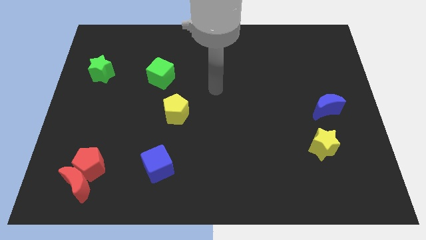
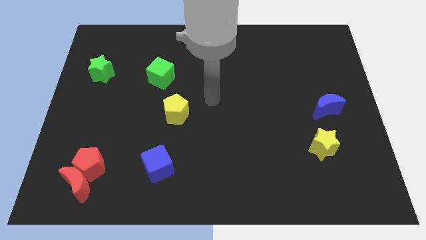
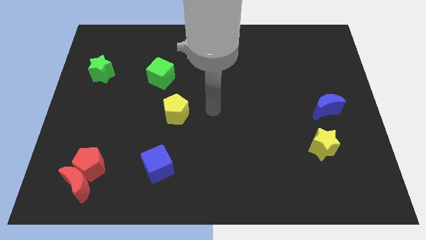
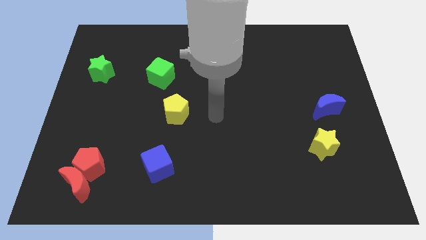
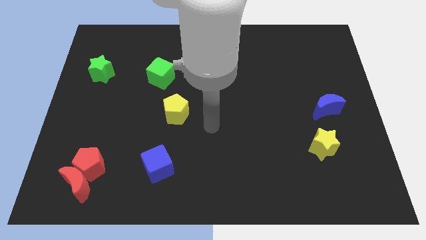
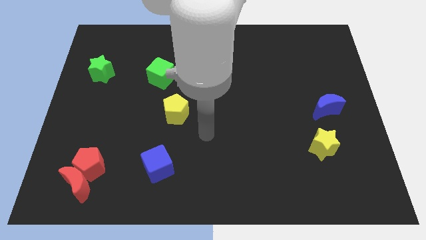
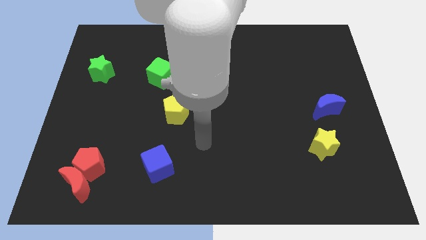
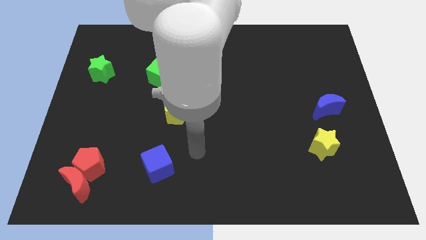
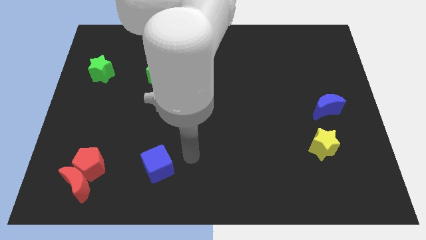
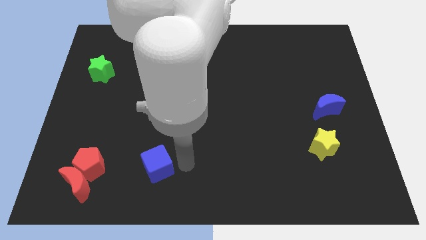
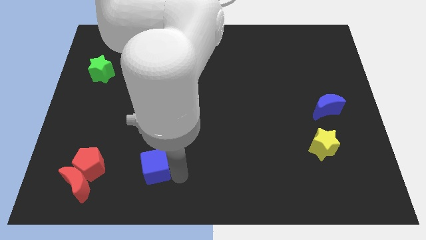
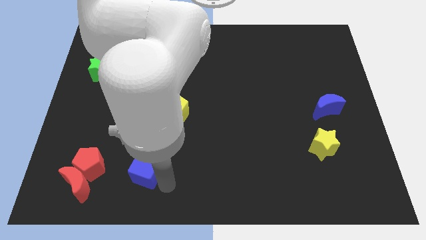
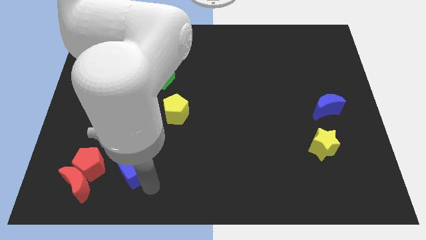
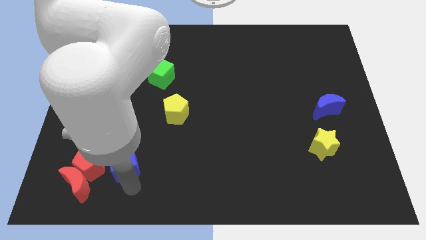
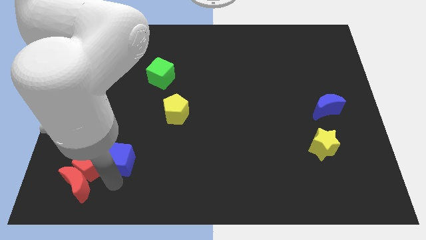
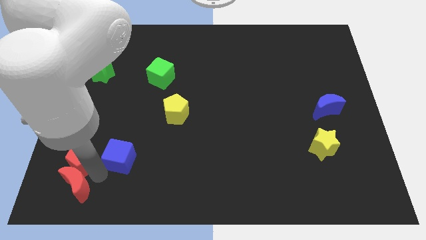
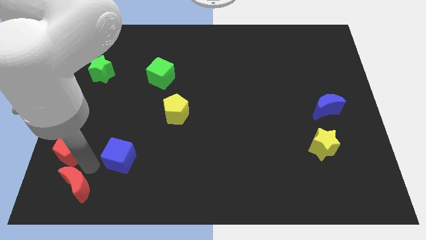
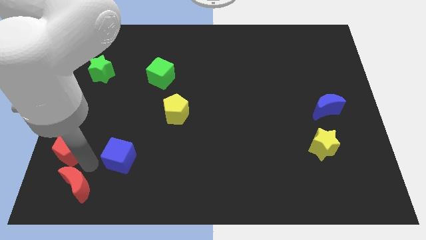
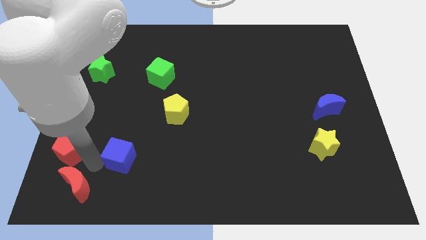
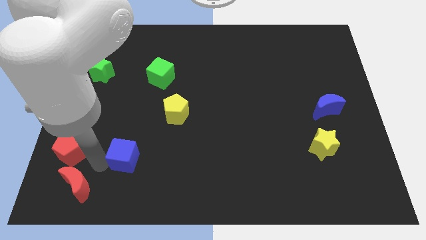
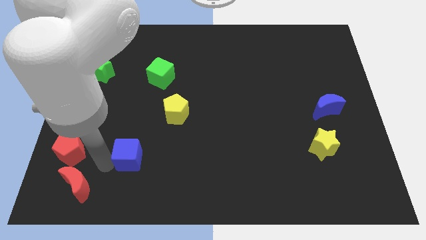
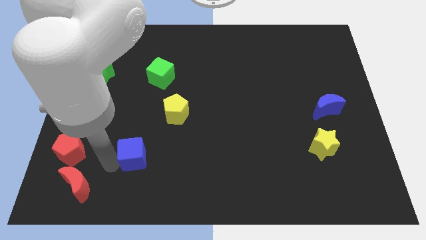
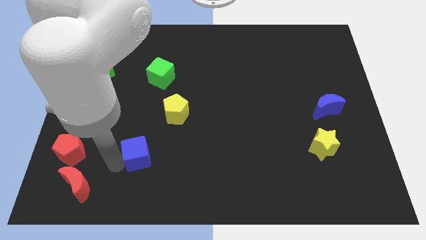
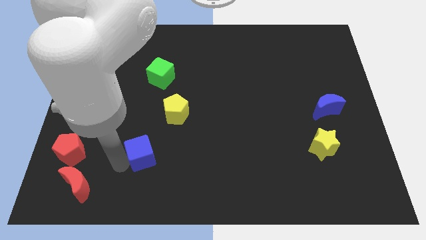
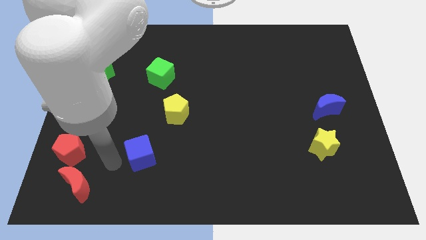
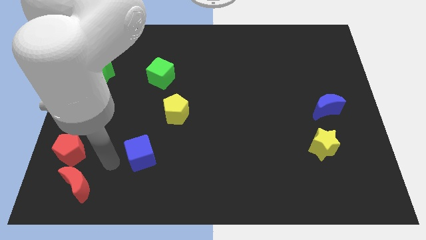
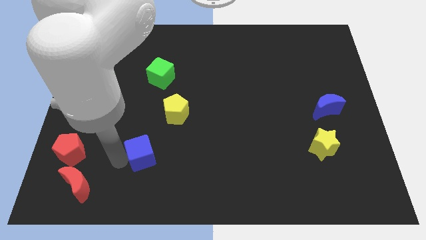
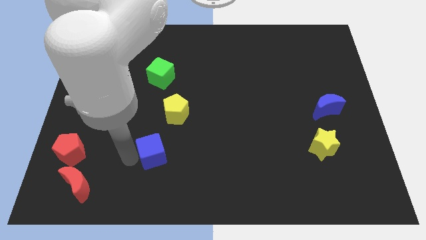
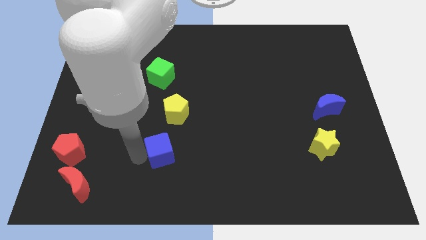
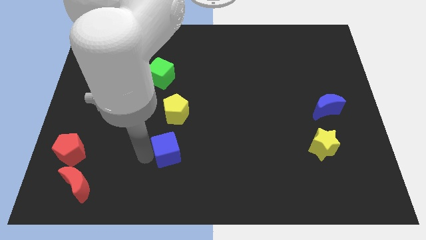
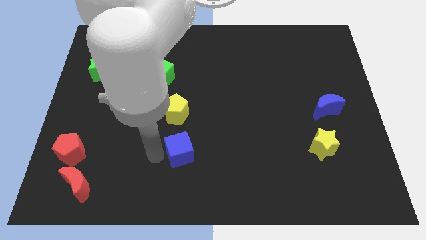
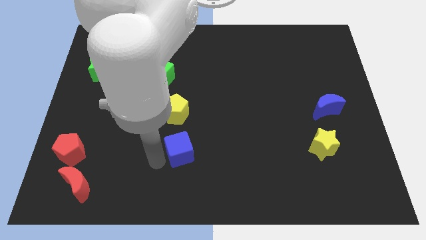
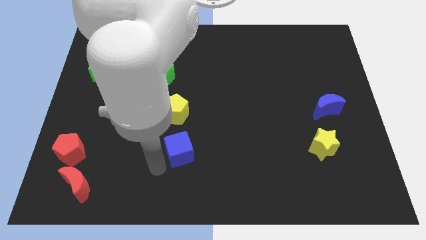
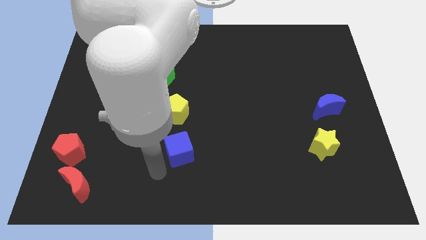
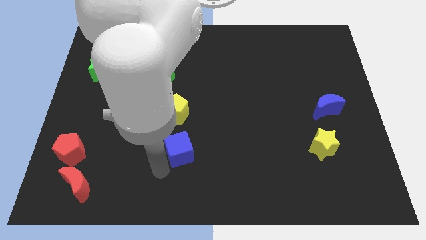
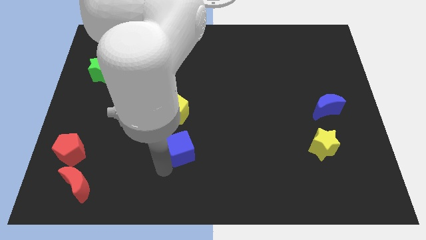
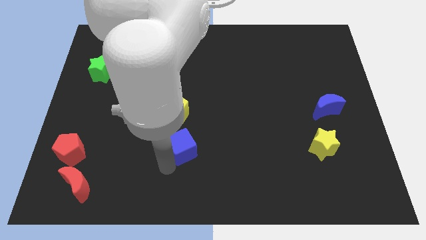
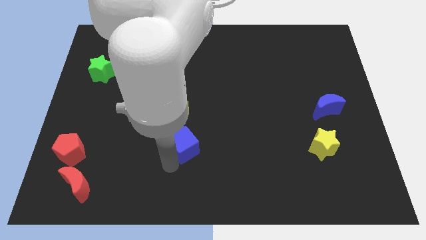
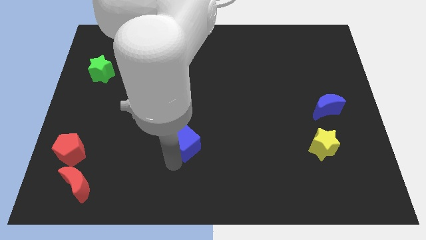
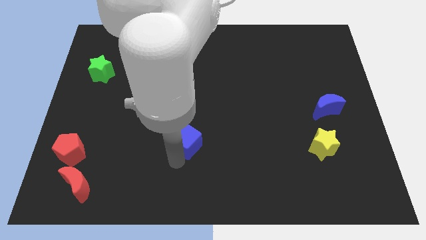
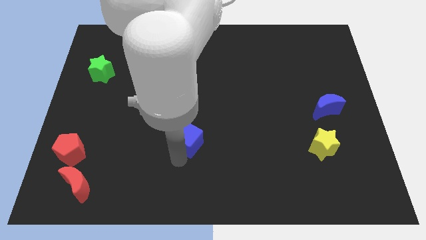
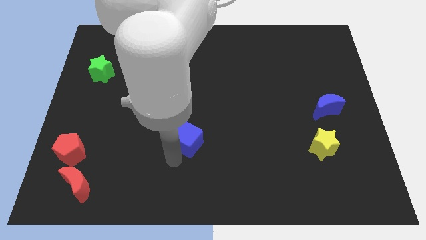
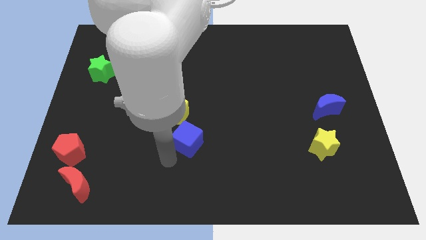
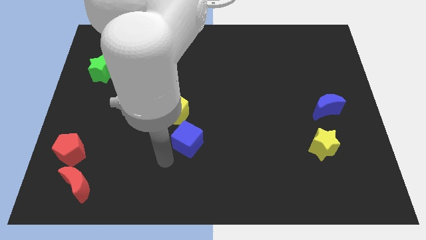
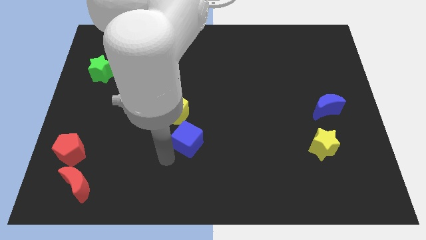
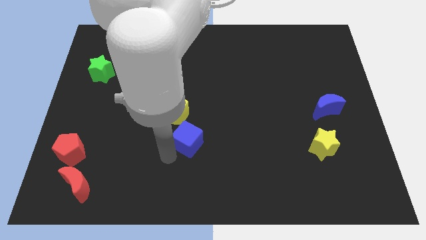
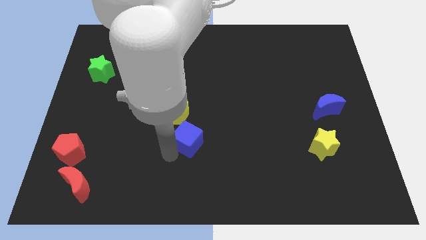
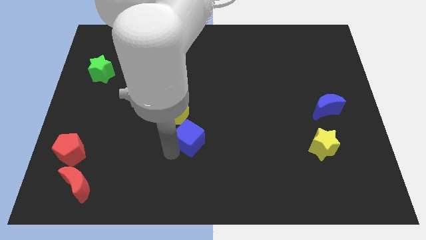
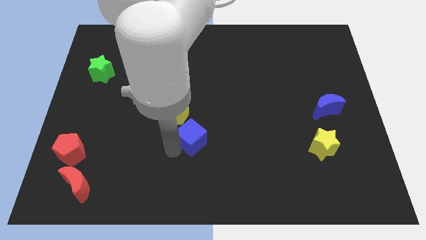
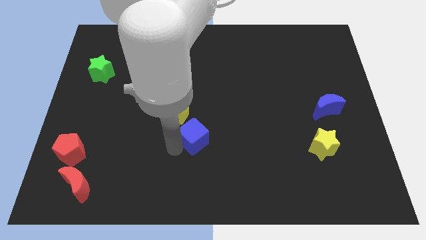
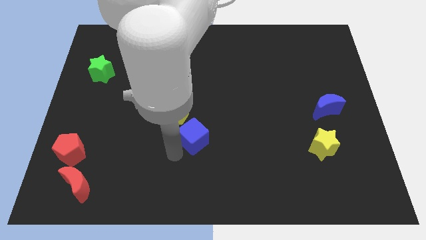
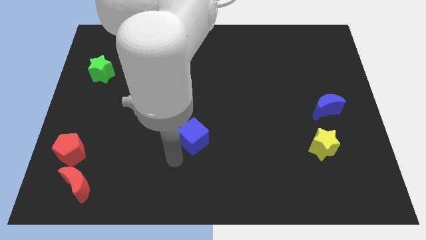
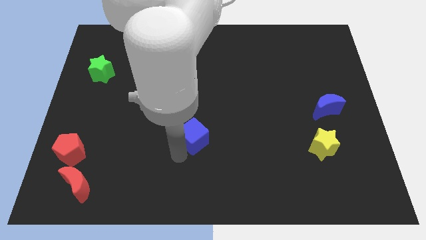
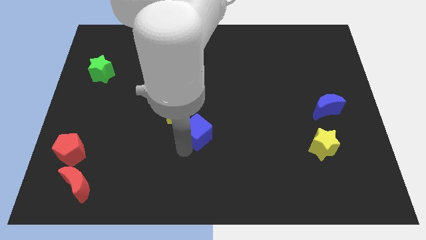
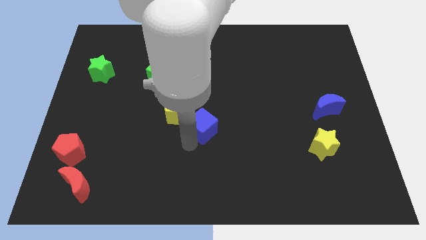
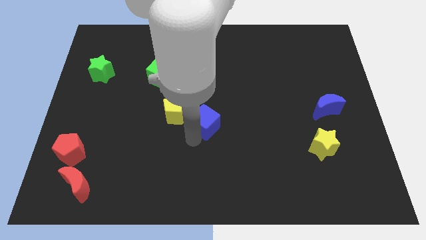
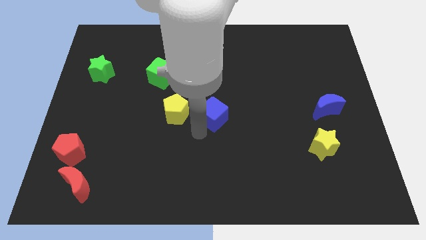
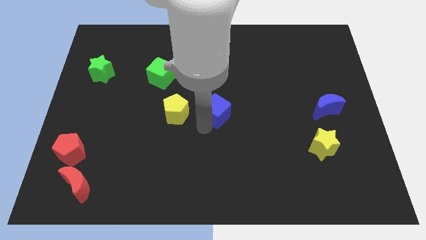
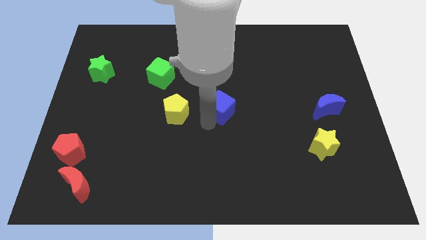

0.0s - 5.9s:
push the blue cube upwards and to the right diagonally

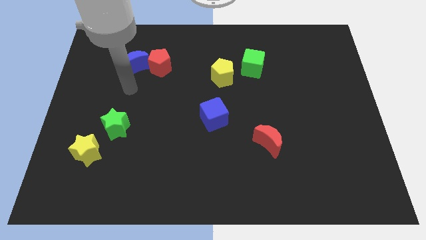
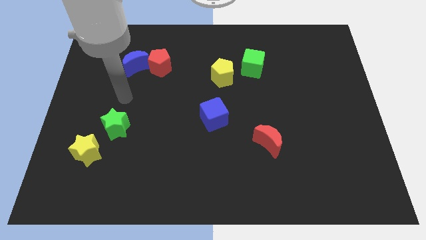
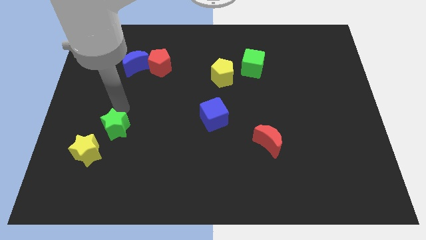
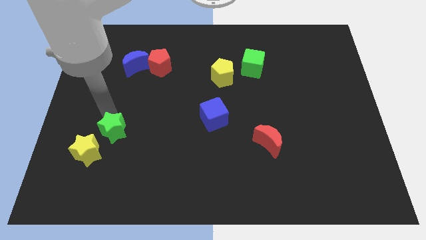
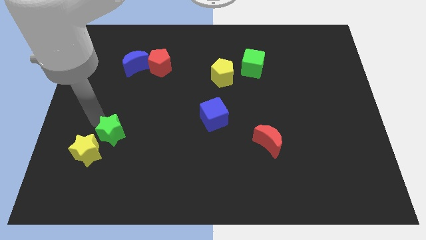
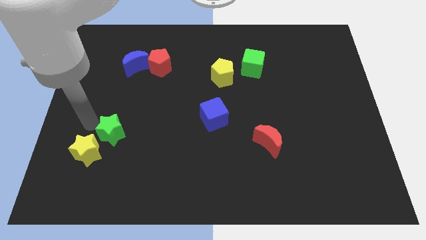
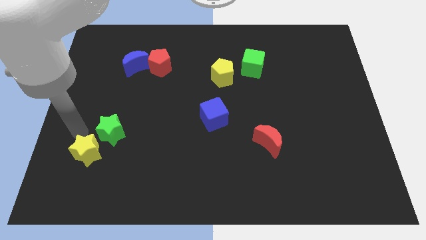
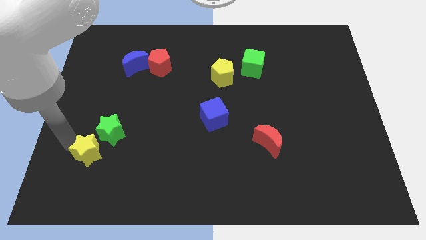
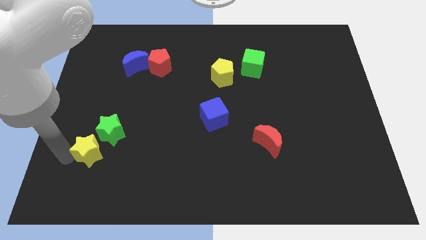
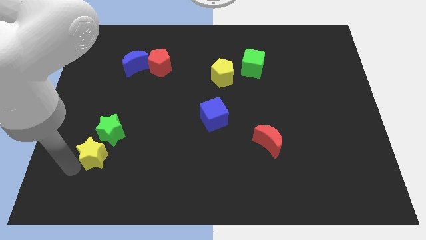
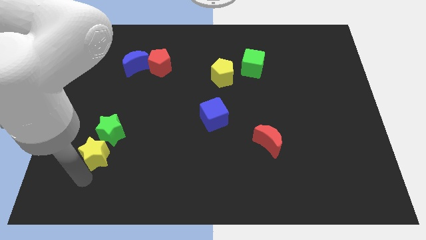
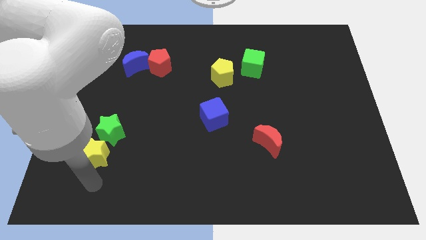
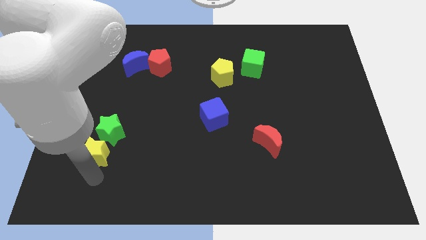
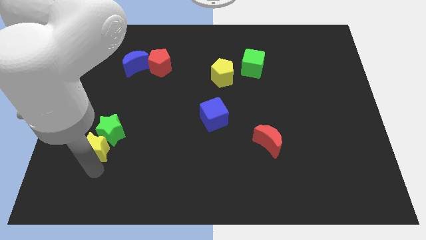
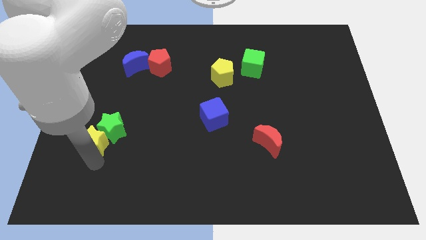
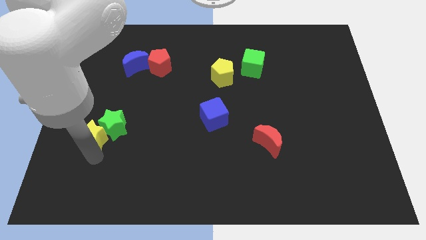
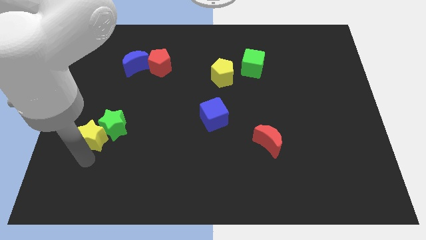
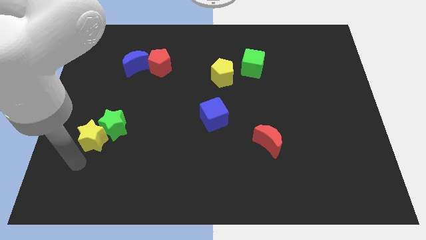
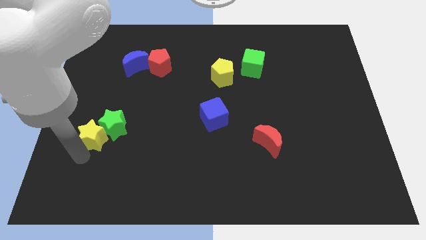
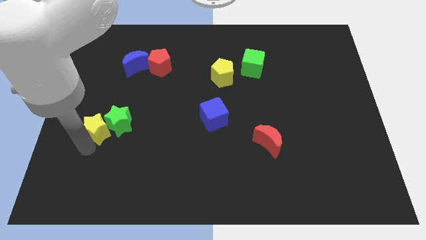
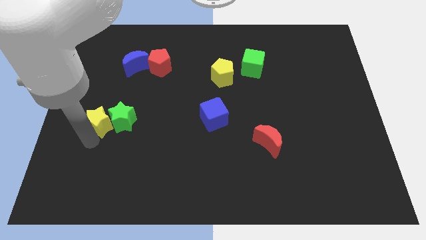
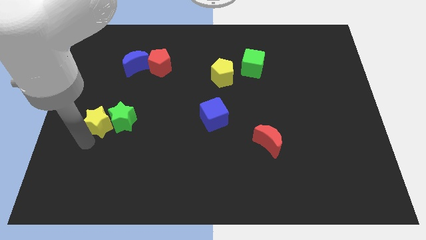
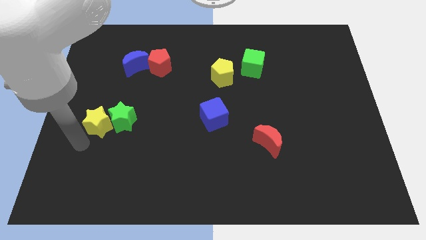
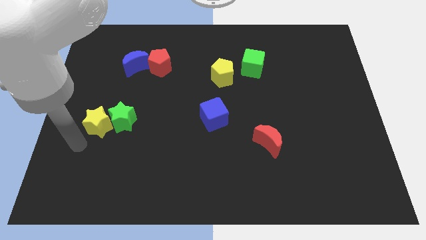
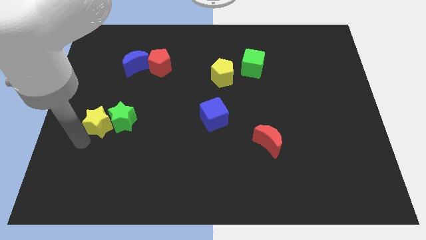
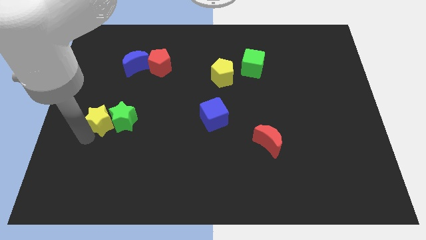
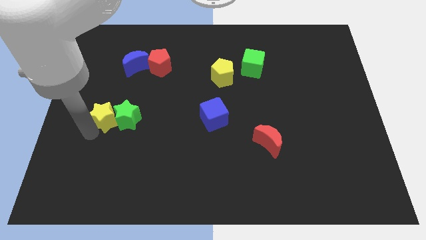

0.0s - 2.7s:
move the yellow star somewhat upwards and to the right
